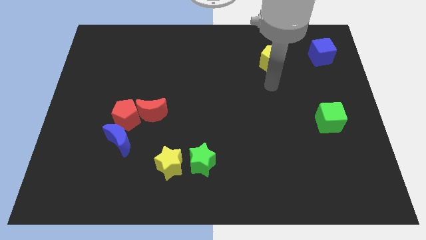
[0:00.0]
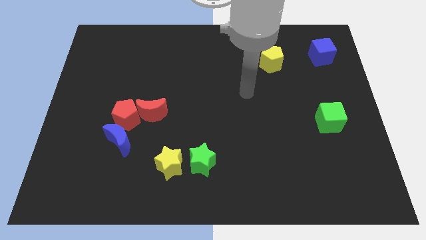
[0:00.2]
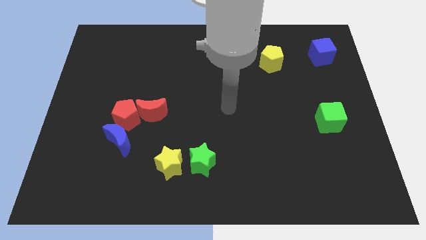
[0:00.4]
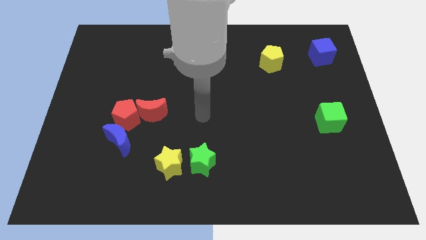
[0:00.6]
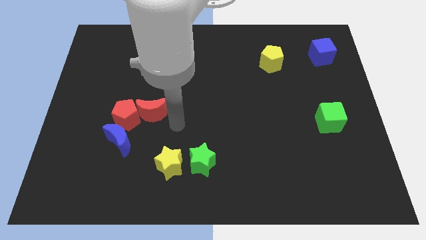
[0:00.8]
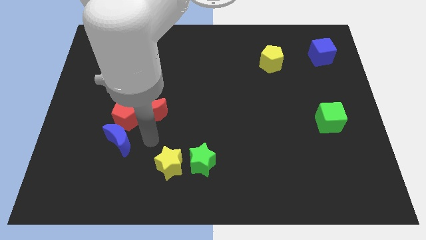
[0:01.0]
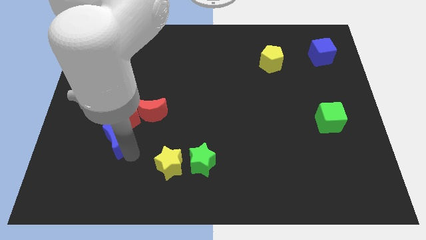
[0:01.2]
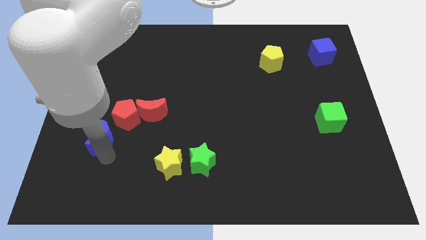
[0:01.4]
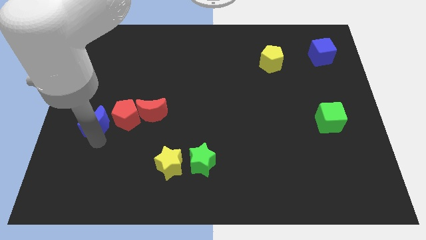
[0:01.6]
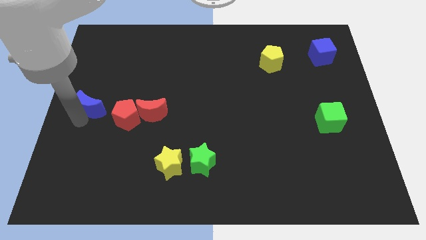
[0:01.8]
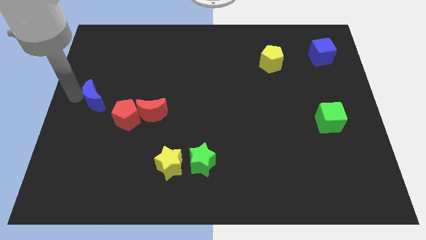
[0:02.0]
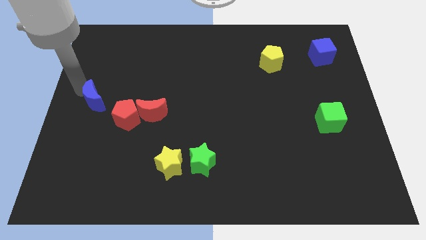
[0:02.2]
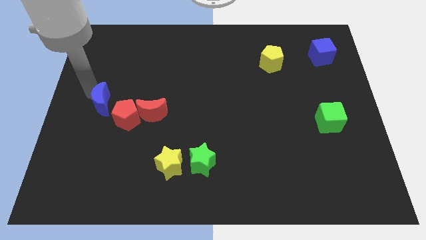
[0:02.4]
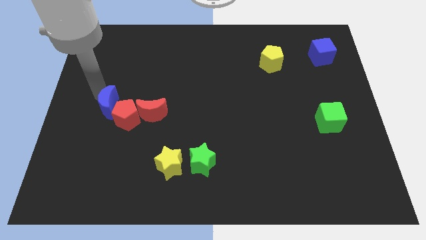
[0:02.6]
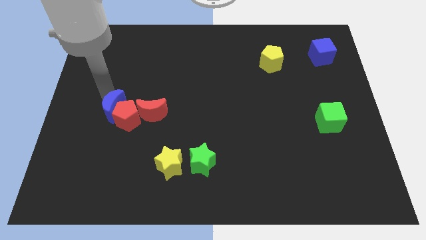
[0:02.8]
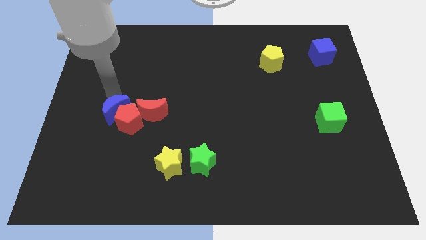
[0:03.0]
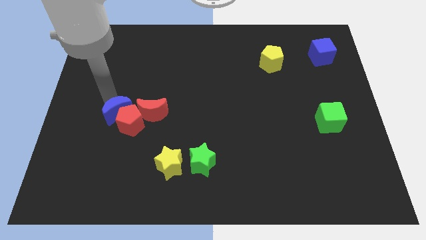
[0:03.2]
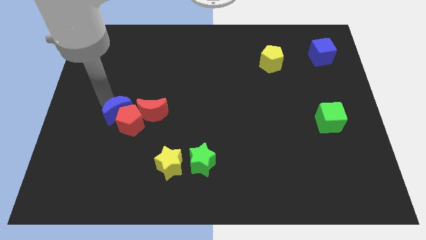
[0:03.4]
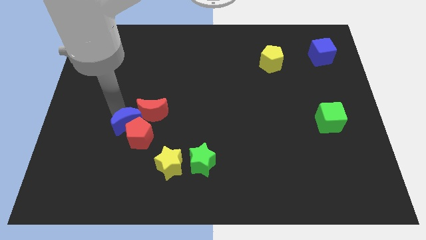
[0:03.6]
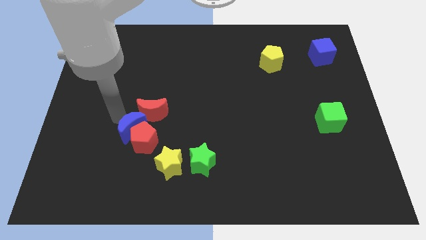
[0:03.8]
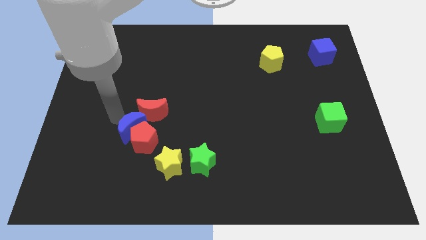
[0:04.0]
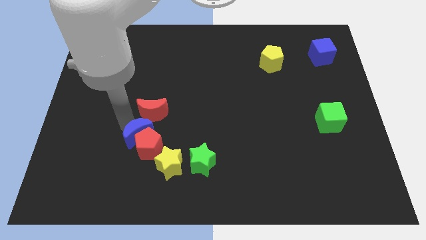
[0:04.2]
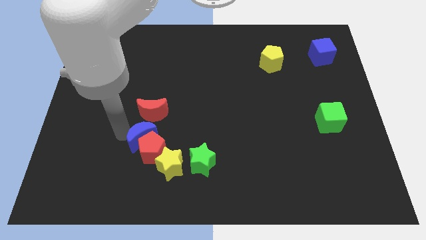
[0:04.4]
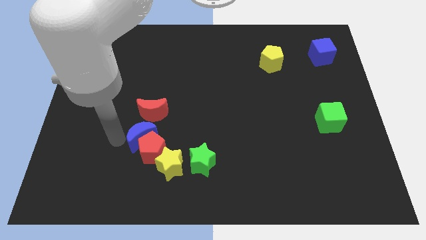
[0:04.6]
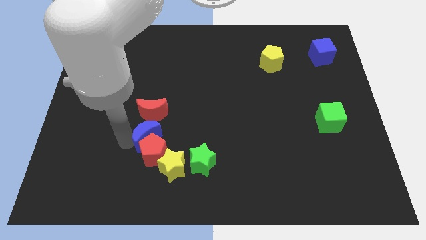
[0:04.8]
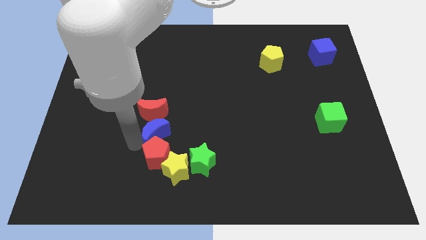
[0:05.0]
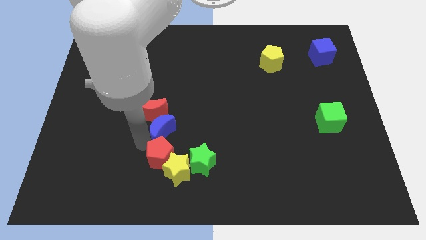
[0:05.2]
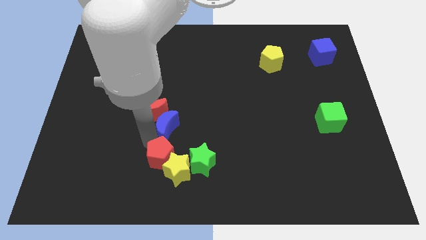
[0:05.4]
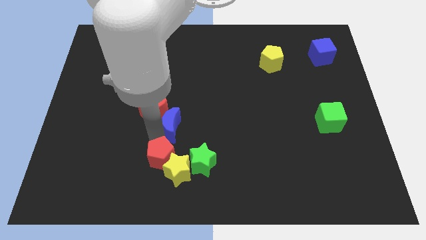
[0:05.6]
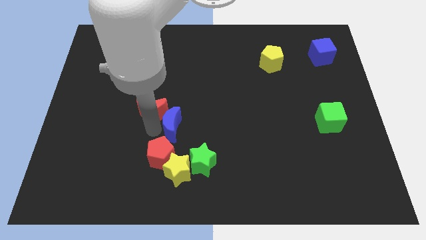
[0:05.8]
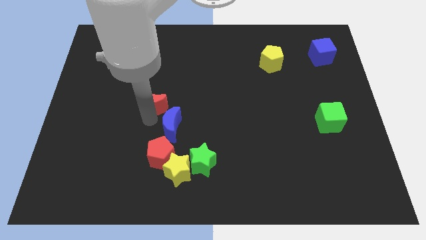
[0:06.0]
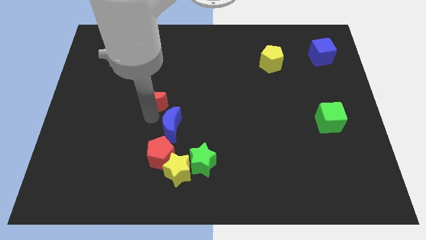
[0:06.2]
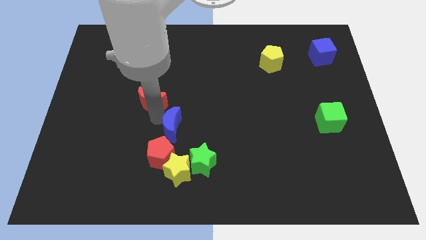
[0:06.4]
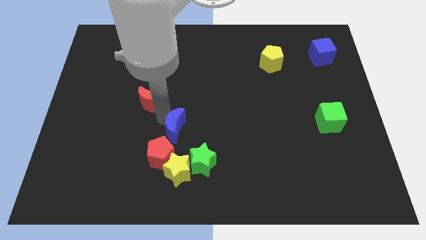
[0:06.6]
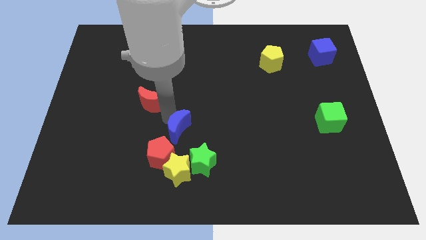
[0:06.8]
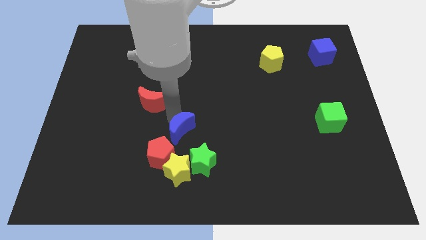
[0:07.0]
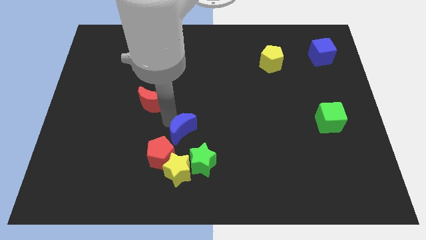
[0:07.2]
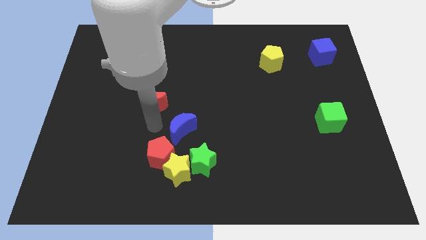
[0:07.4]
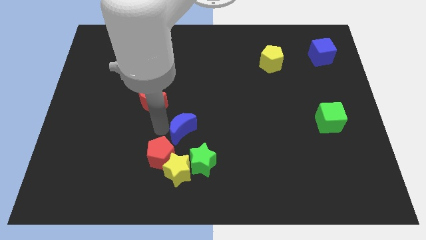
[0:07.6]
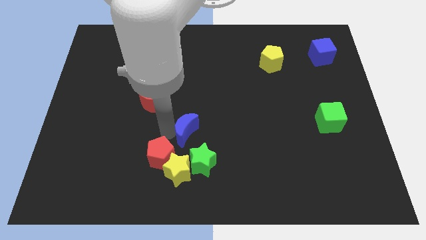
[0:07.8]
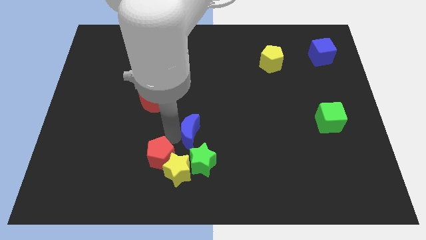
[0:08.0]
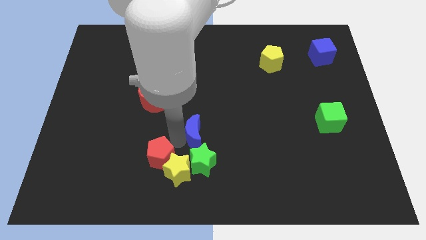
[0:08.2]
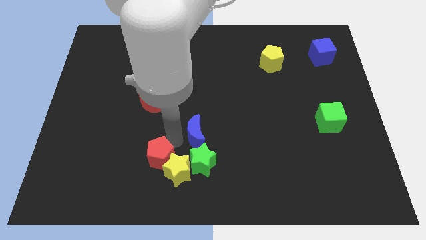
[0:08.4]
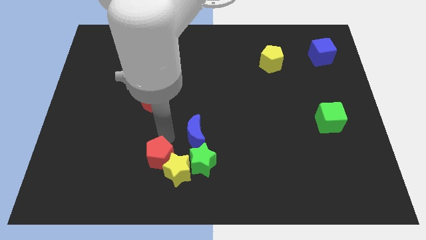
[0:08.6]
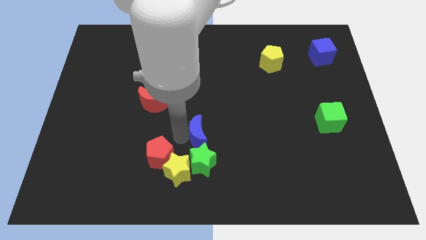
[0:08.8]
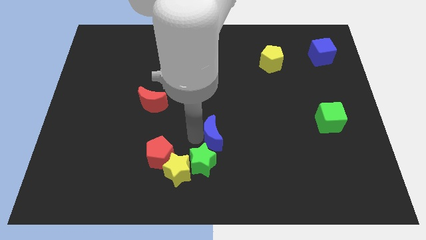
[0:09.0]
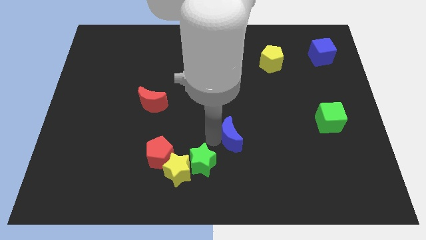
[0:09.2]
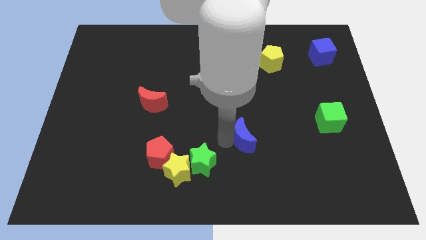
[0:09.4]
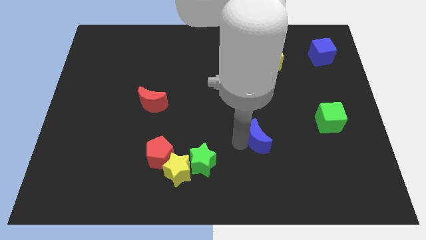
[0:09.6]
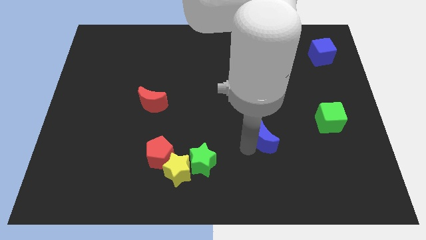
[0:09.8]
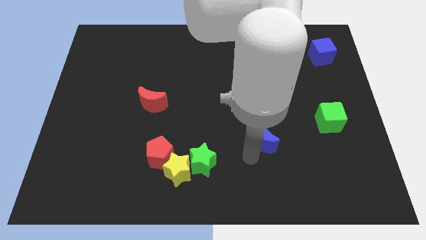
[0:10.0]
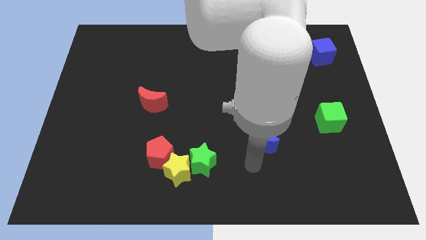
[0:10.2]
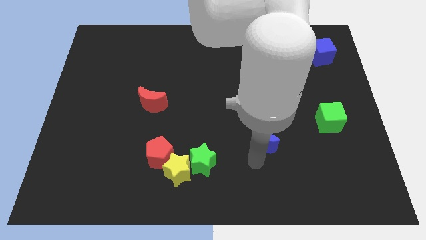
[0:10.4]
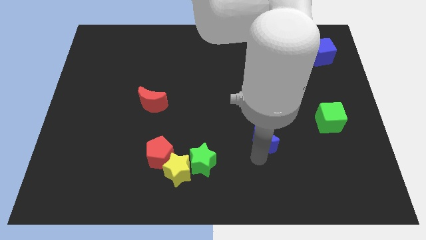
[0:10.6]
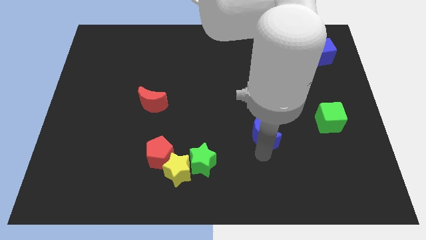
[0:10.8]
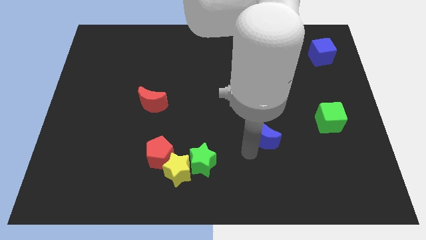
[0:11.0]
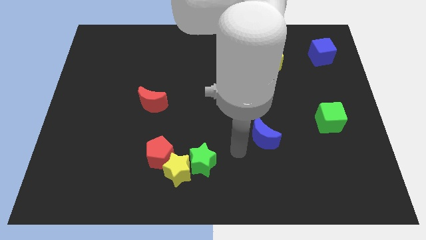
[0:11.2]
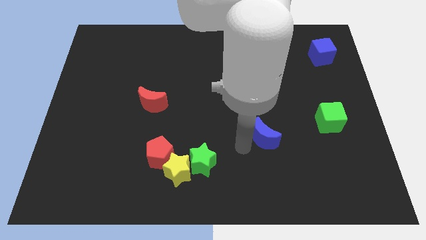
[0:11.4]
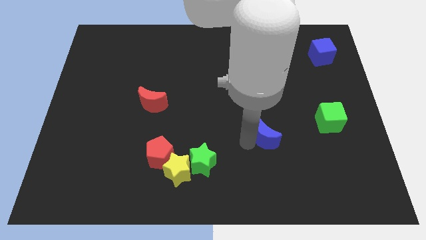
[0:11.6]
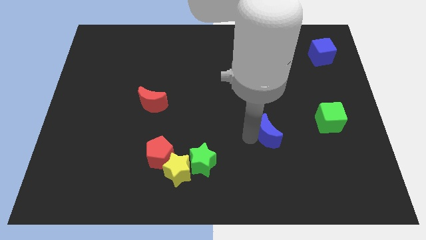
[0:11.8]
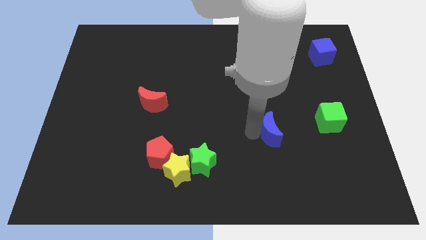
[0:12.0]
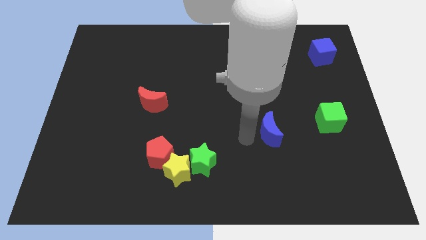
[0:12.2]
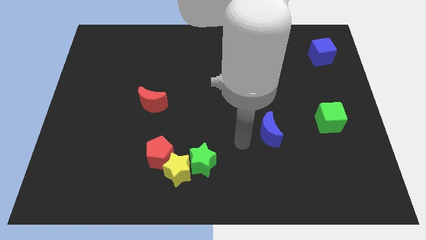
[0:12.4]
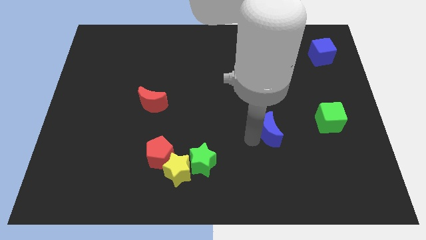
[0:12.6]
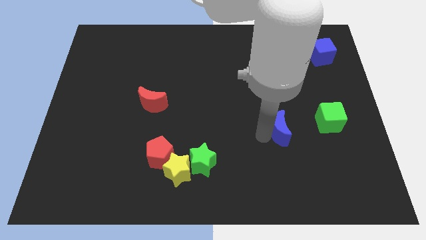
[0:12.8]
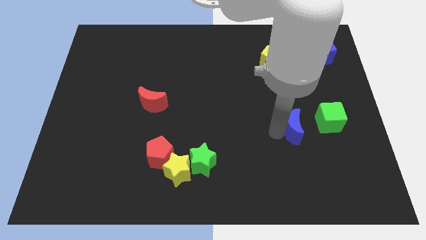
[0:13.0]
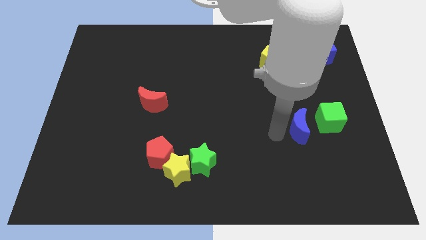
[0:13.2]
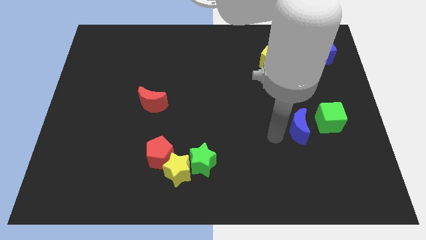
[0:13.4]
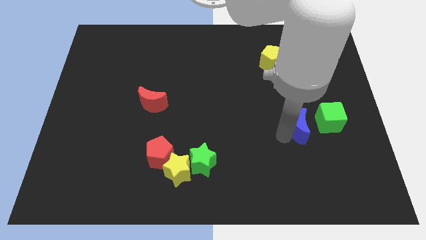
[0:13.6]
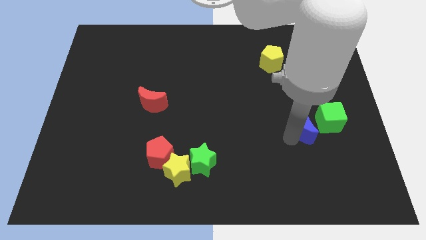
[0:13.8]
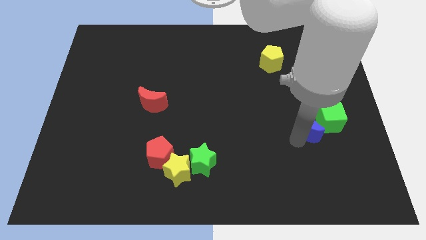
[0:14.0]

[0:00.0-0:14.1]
put the blue moon next to the green cube

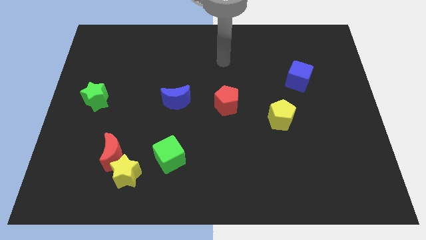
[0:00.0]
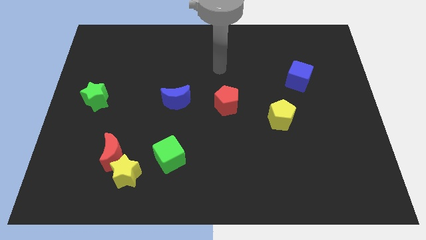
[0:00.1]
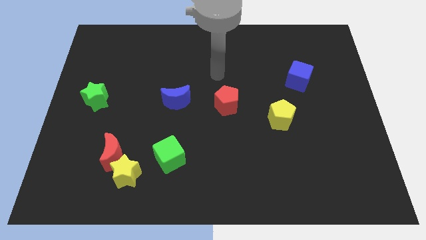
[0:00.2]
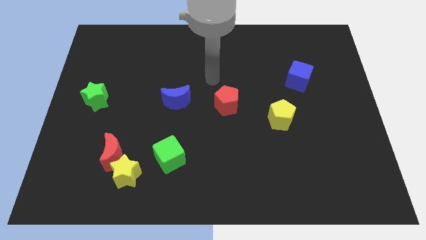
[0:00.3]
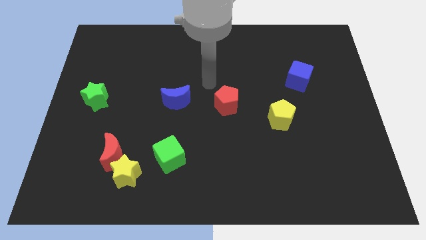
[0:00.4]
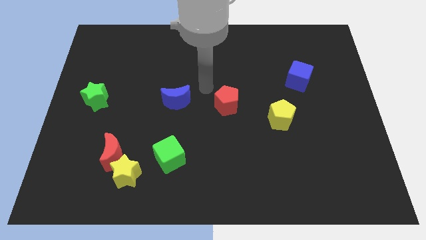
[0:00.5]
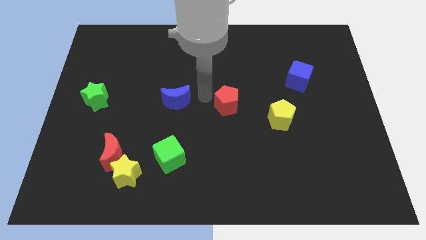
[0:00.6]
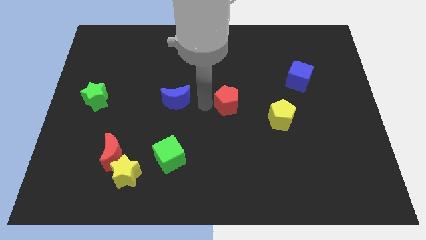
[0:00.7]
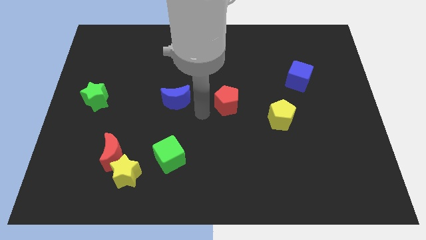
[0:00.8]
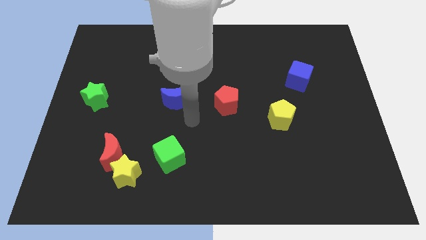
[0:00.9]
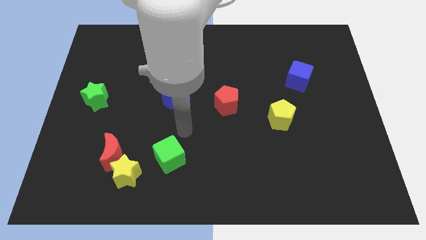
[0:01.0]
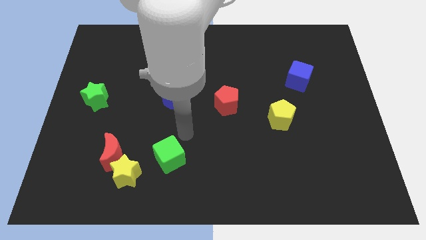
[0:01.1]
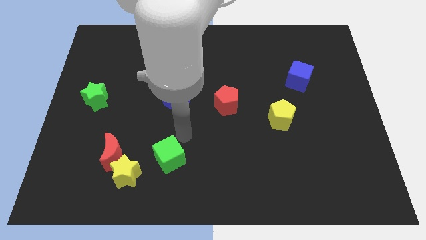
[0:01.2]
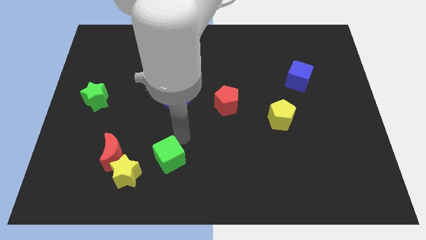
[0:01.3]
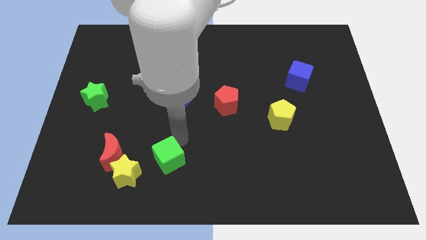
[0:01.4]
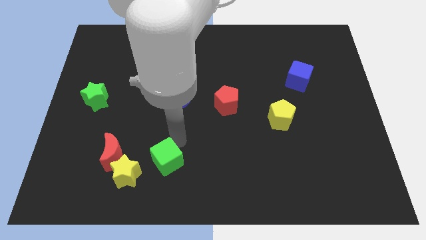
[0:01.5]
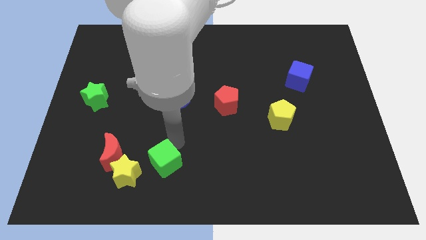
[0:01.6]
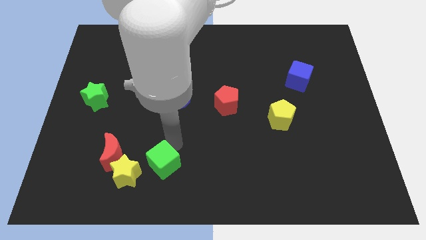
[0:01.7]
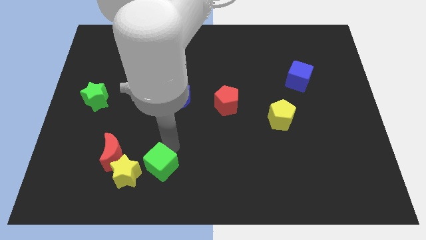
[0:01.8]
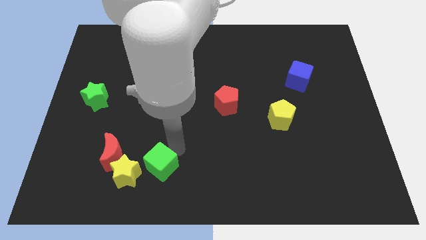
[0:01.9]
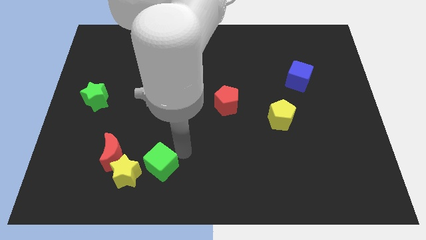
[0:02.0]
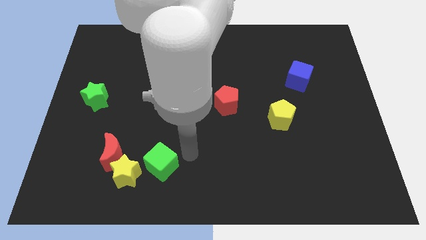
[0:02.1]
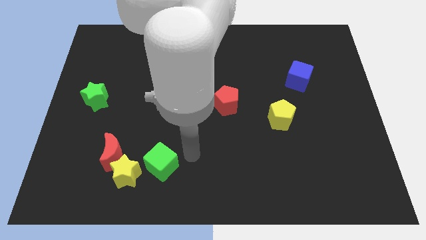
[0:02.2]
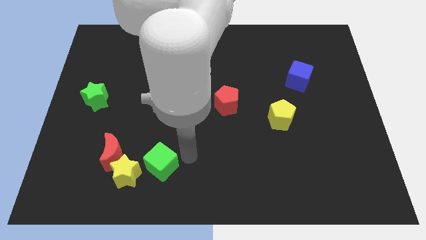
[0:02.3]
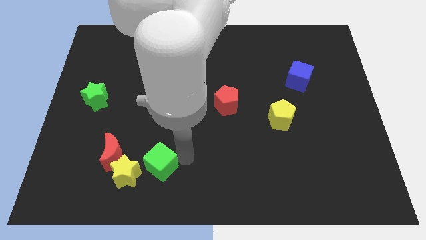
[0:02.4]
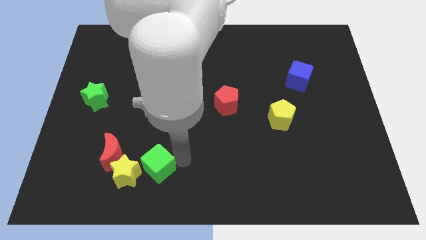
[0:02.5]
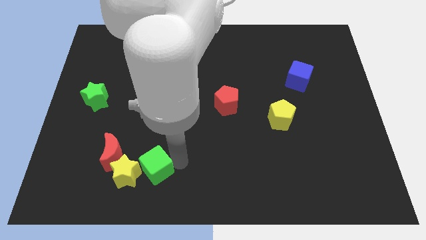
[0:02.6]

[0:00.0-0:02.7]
push the green cube next to the yellow star
